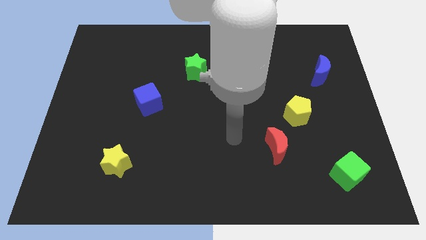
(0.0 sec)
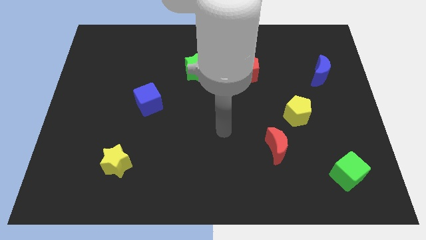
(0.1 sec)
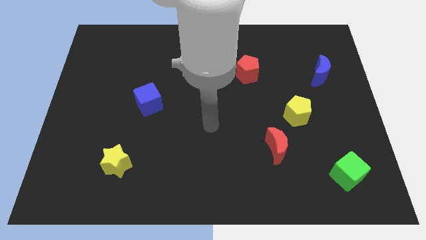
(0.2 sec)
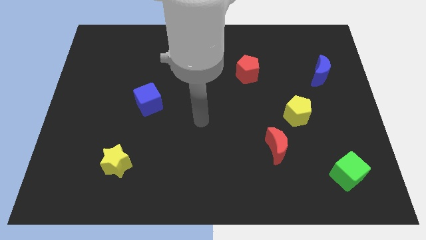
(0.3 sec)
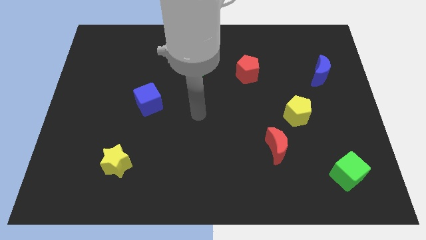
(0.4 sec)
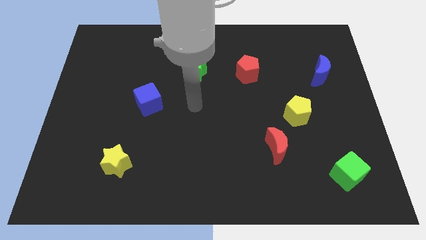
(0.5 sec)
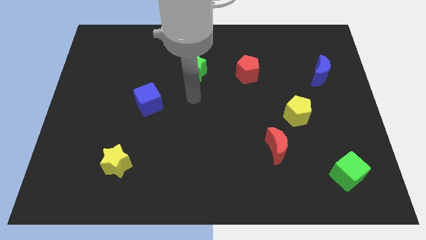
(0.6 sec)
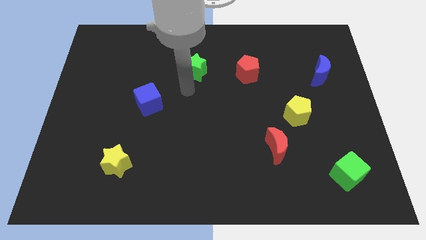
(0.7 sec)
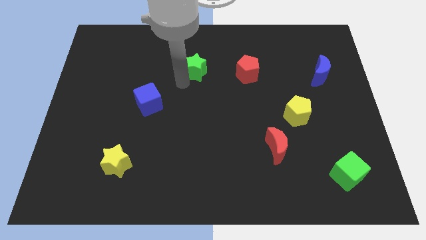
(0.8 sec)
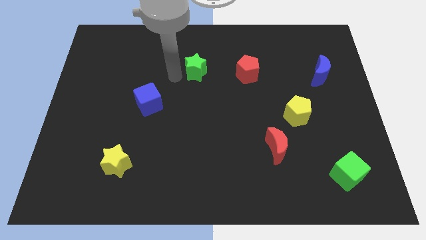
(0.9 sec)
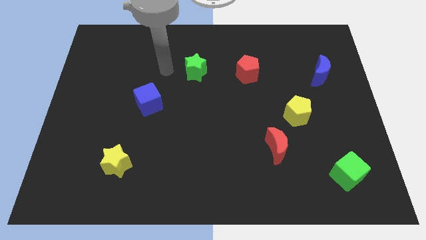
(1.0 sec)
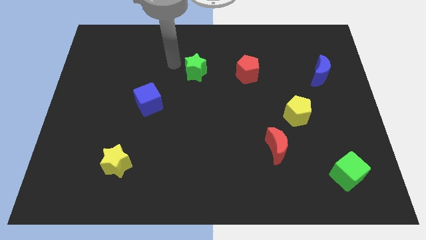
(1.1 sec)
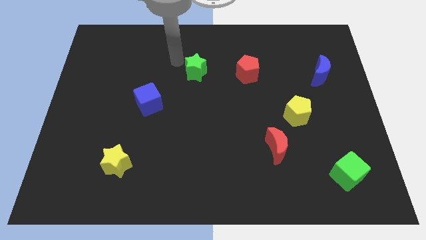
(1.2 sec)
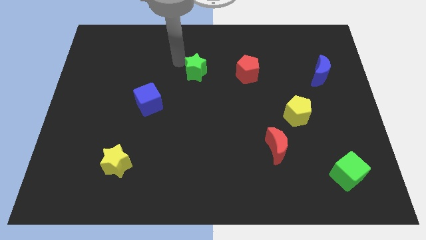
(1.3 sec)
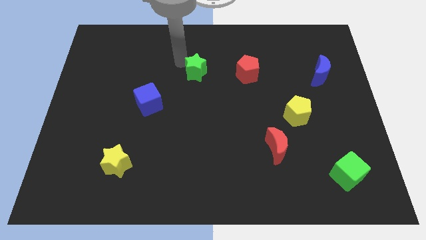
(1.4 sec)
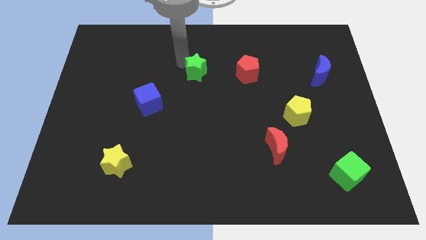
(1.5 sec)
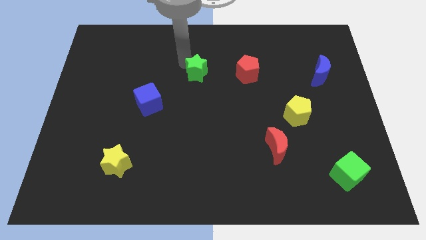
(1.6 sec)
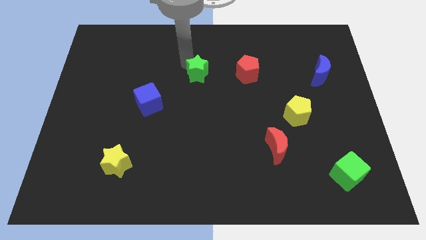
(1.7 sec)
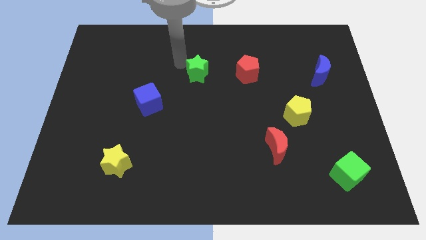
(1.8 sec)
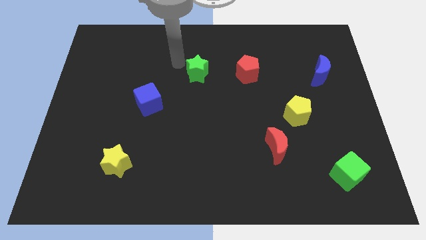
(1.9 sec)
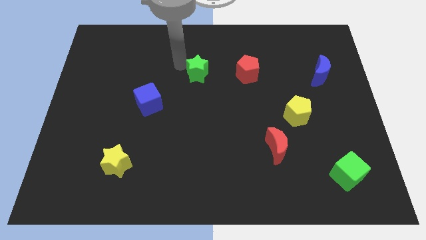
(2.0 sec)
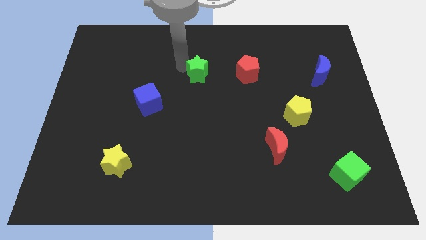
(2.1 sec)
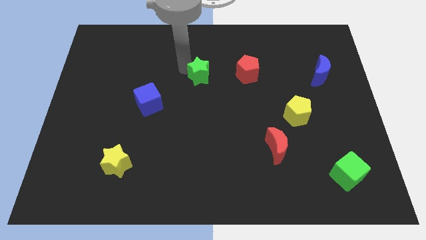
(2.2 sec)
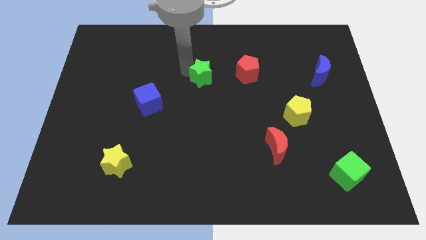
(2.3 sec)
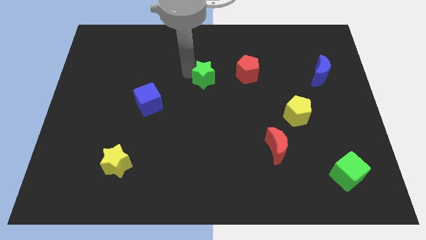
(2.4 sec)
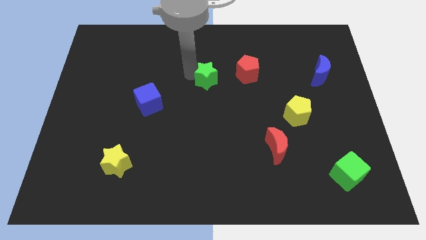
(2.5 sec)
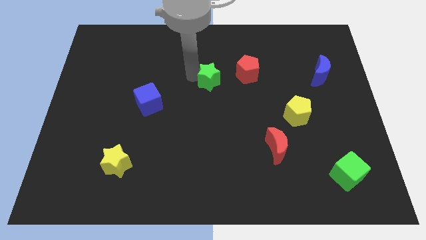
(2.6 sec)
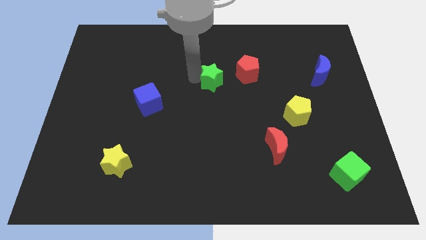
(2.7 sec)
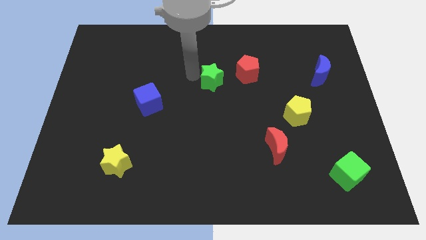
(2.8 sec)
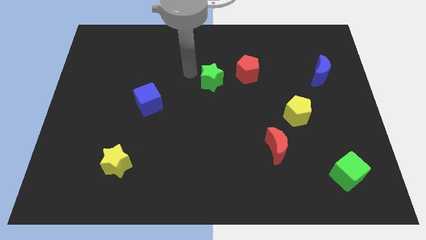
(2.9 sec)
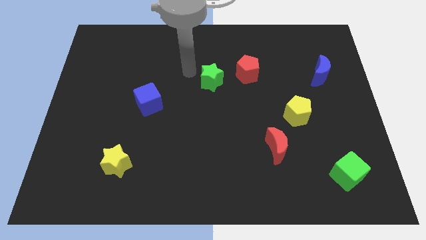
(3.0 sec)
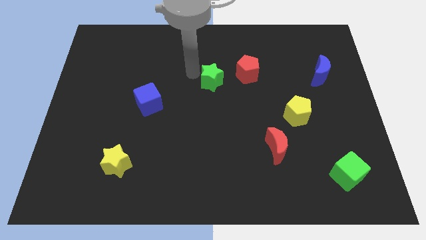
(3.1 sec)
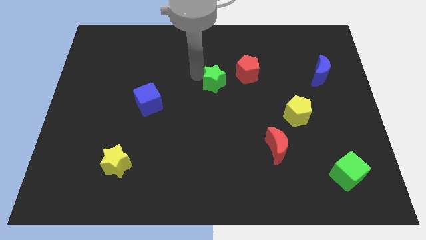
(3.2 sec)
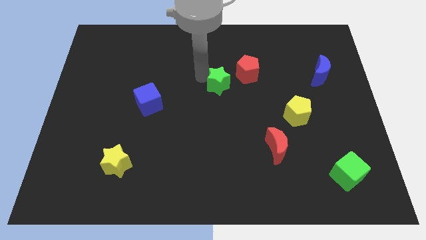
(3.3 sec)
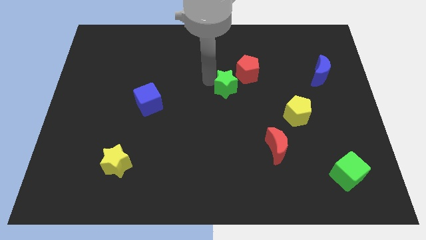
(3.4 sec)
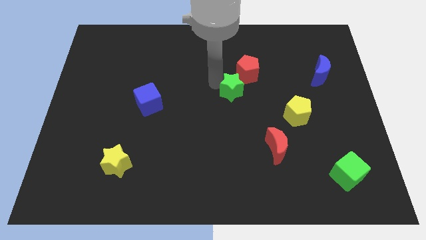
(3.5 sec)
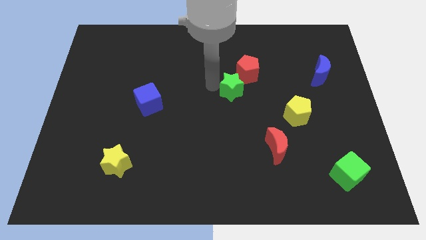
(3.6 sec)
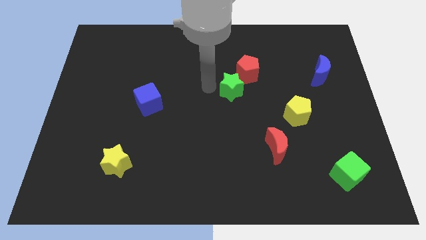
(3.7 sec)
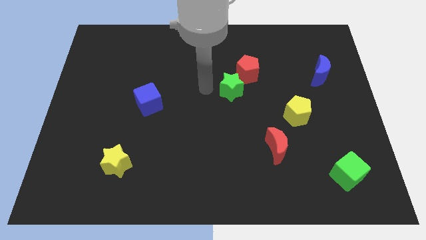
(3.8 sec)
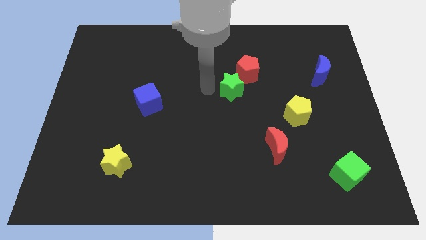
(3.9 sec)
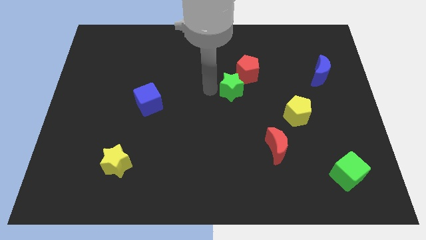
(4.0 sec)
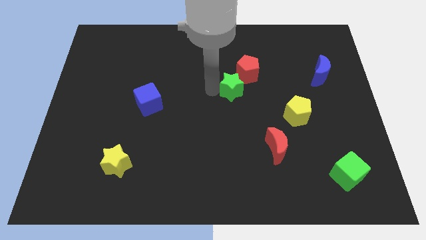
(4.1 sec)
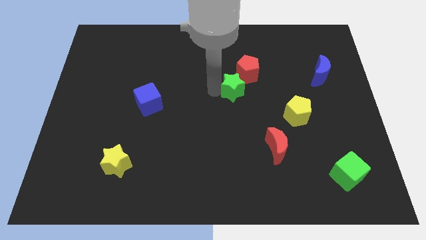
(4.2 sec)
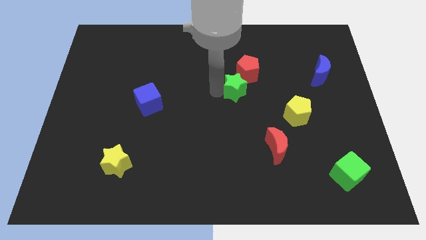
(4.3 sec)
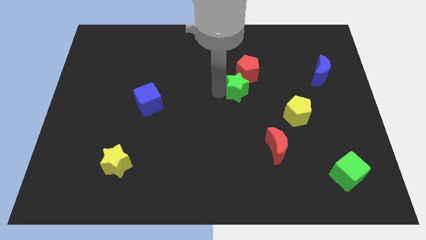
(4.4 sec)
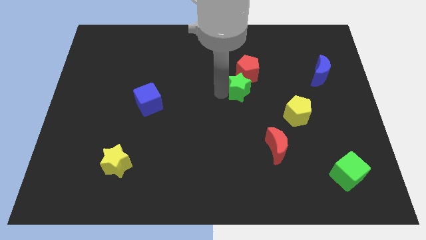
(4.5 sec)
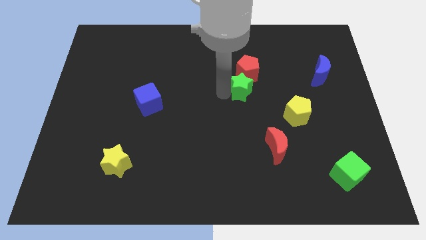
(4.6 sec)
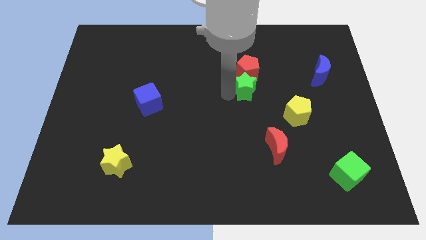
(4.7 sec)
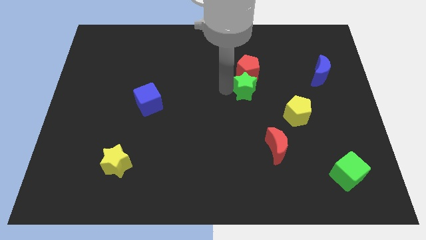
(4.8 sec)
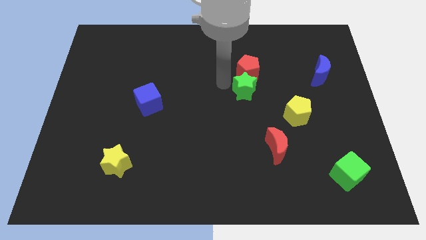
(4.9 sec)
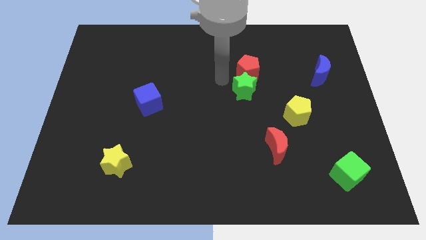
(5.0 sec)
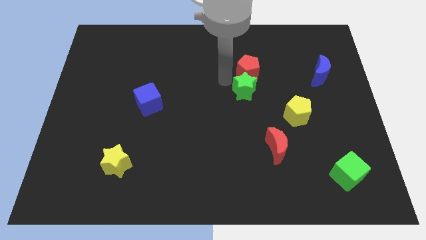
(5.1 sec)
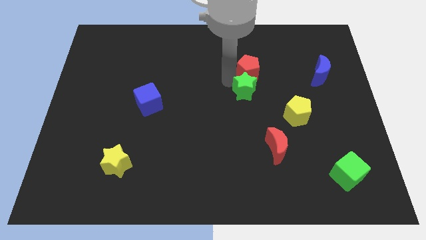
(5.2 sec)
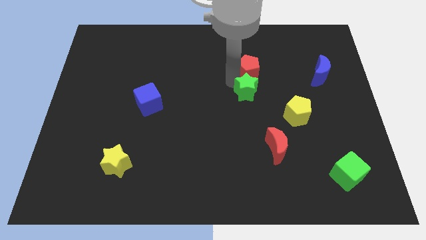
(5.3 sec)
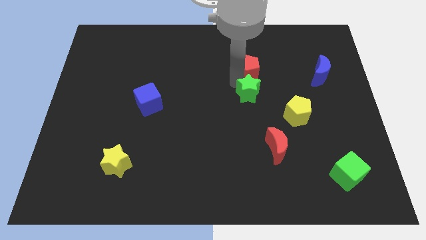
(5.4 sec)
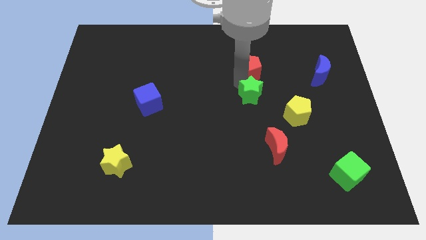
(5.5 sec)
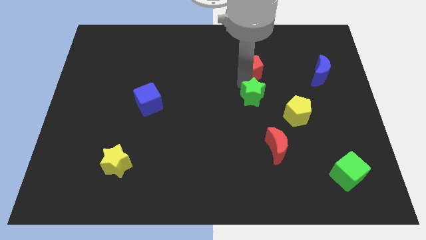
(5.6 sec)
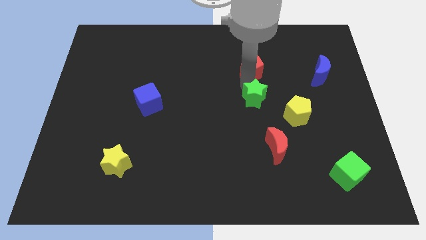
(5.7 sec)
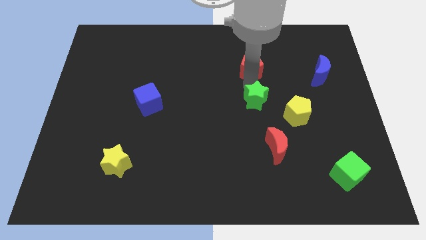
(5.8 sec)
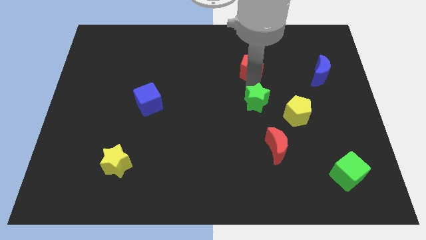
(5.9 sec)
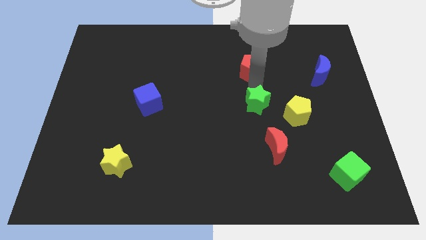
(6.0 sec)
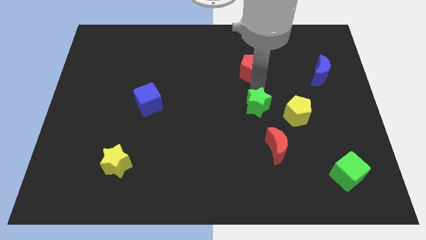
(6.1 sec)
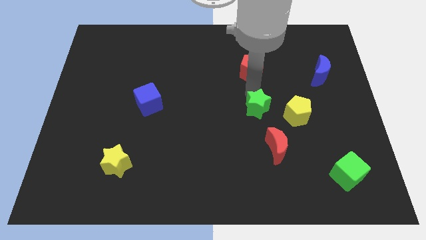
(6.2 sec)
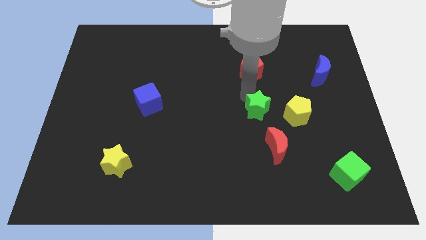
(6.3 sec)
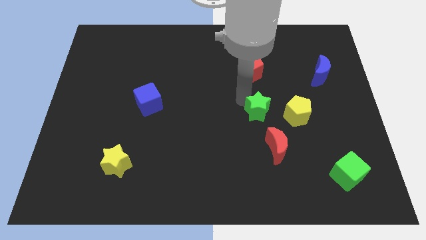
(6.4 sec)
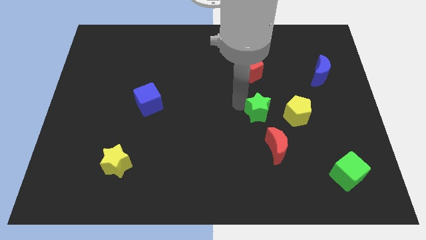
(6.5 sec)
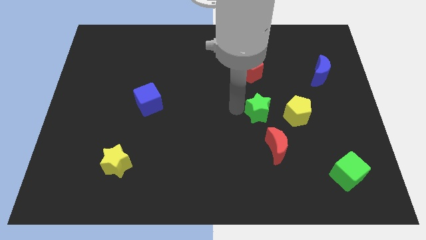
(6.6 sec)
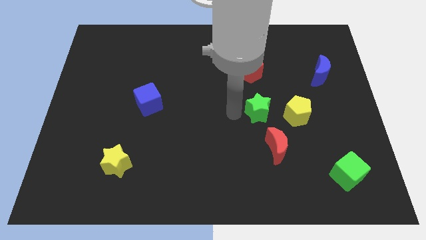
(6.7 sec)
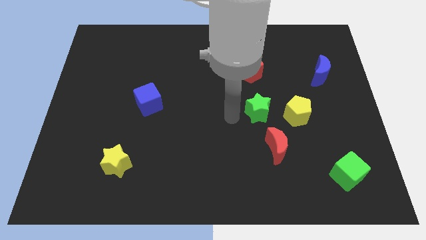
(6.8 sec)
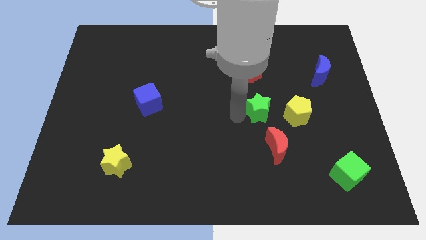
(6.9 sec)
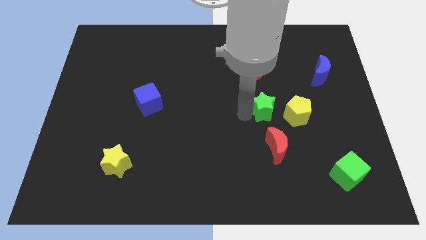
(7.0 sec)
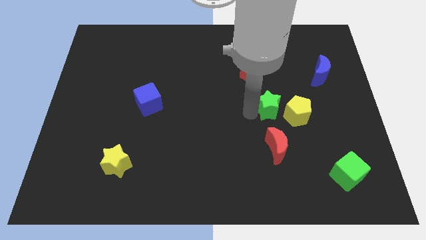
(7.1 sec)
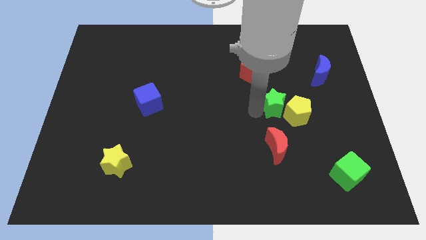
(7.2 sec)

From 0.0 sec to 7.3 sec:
push the green star towards the yellow pentagon
